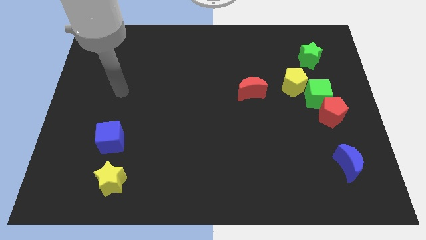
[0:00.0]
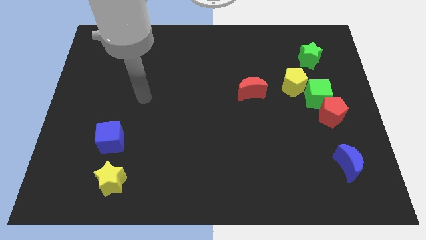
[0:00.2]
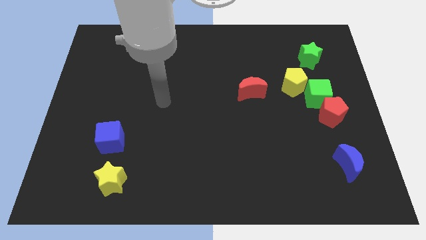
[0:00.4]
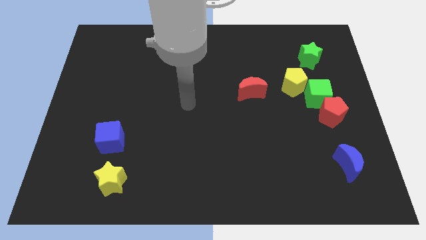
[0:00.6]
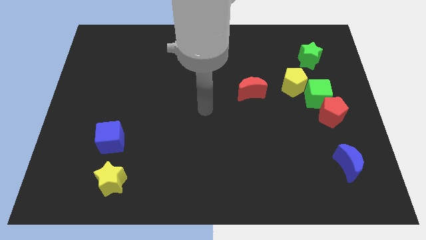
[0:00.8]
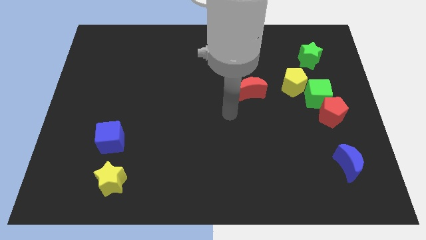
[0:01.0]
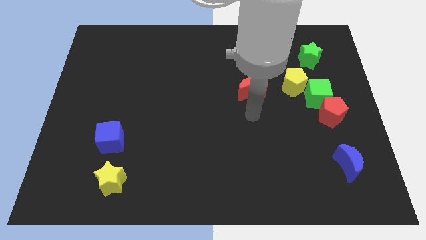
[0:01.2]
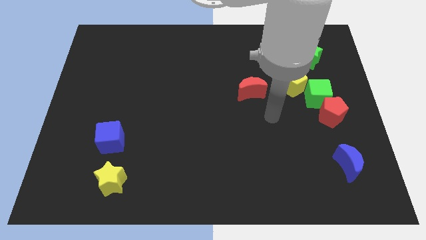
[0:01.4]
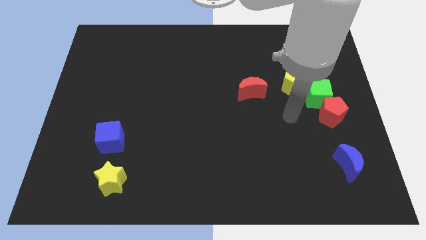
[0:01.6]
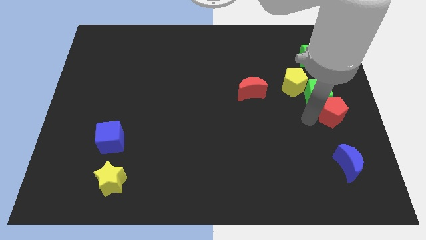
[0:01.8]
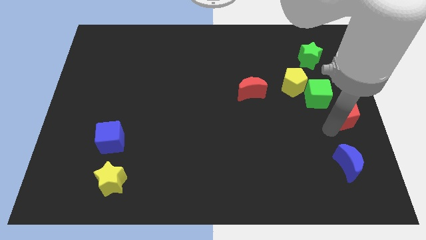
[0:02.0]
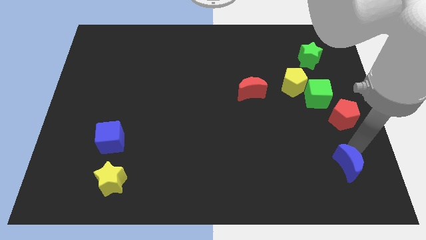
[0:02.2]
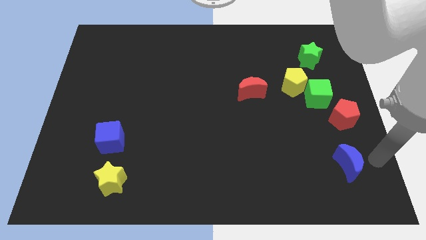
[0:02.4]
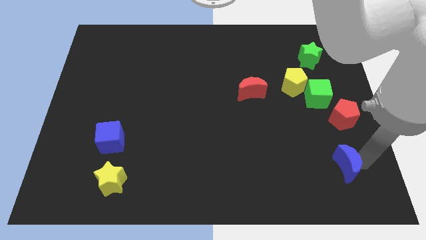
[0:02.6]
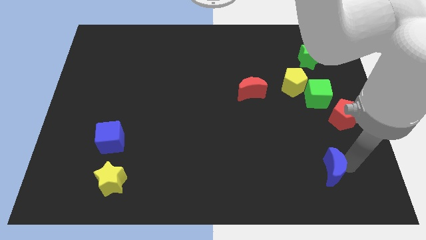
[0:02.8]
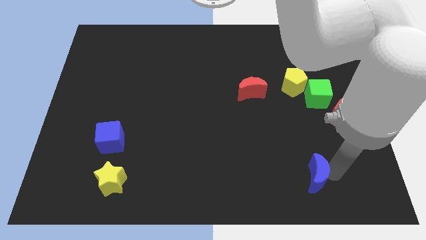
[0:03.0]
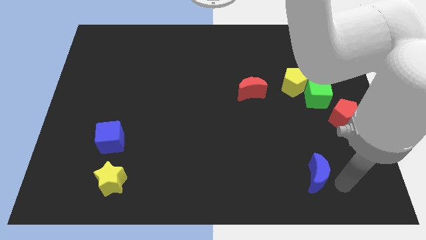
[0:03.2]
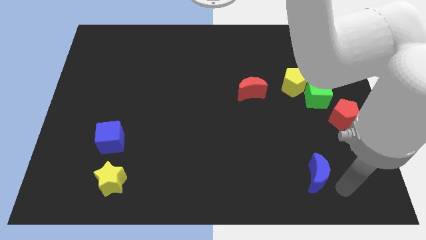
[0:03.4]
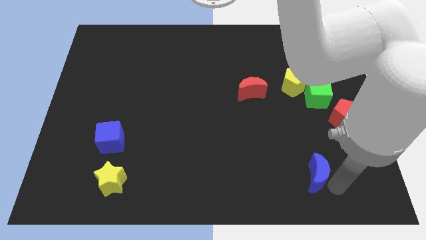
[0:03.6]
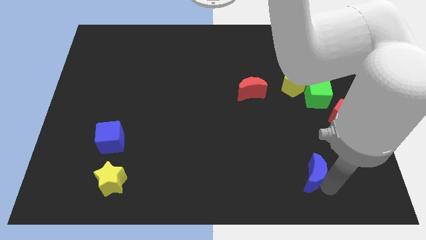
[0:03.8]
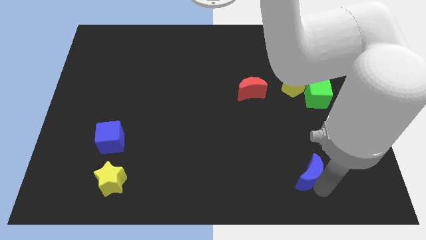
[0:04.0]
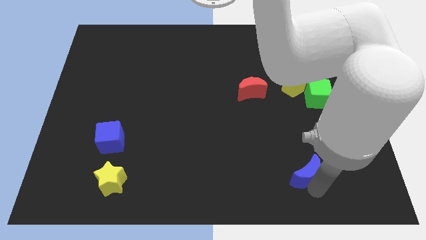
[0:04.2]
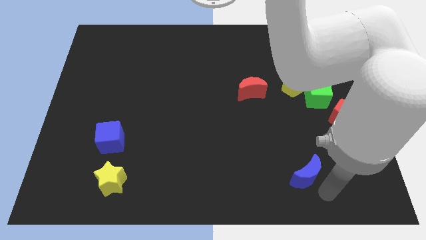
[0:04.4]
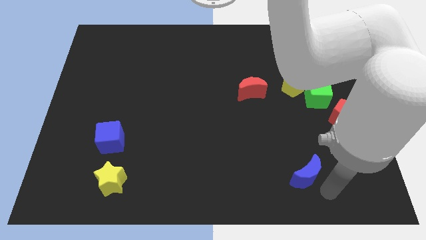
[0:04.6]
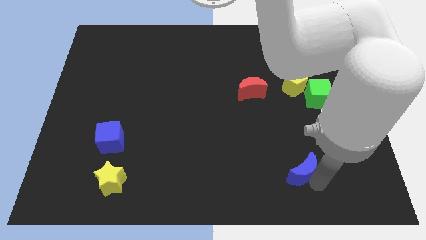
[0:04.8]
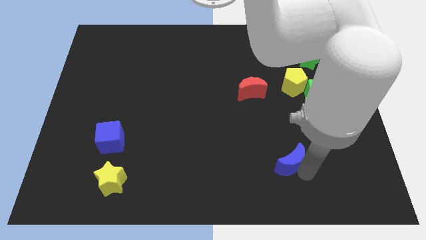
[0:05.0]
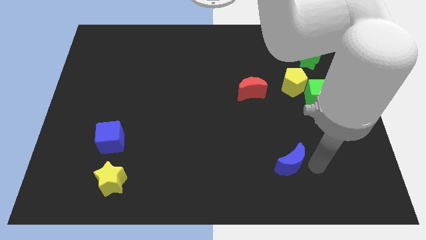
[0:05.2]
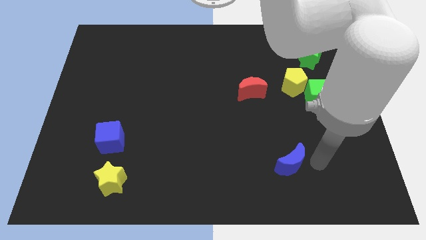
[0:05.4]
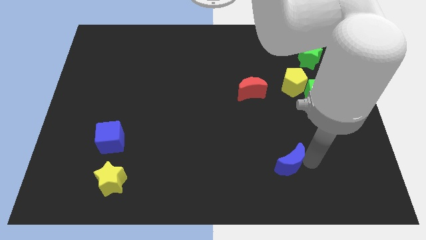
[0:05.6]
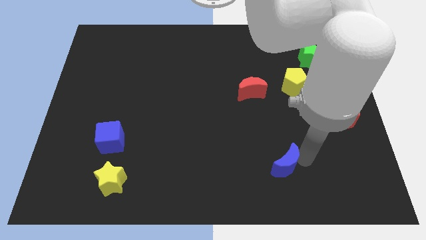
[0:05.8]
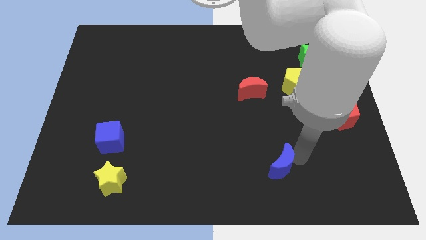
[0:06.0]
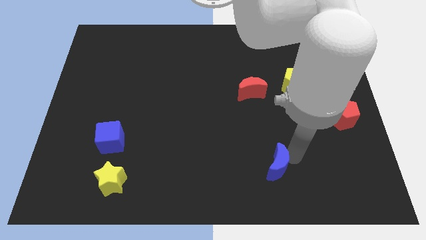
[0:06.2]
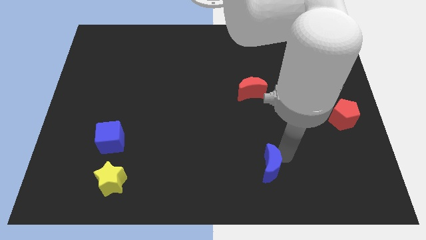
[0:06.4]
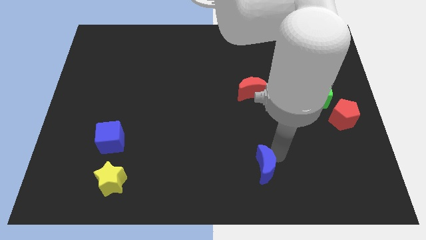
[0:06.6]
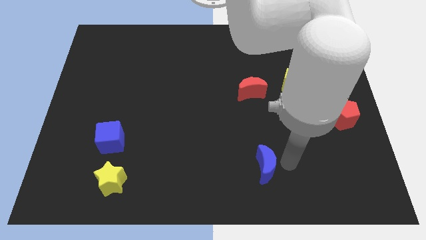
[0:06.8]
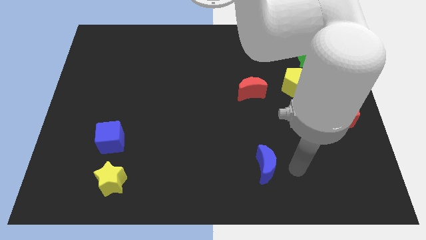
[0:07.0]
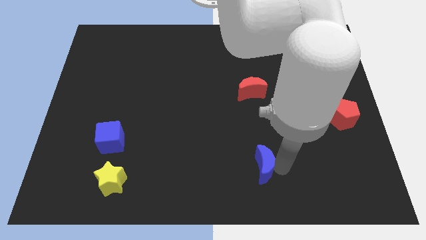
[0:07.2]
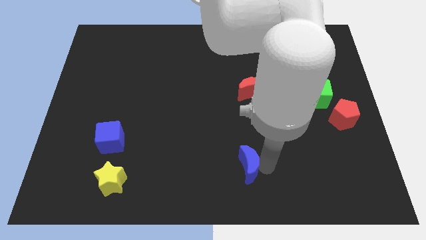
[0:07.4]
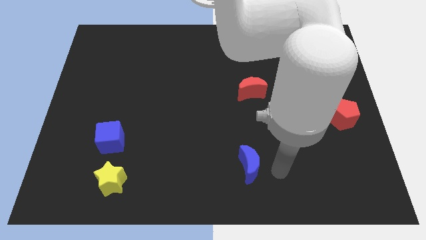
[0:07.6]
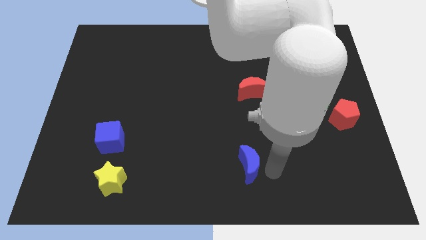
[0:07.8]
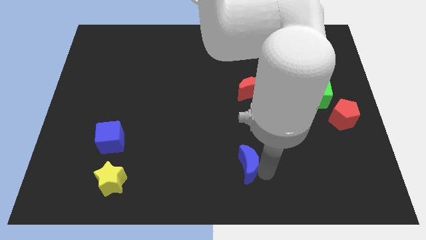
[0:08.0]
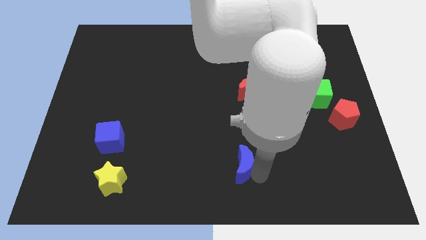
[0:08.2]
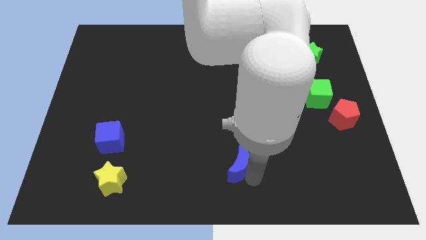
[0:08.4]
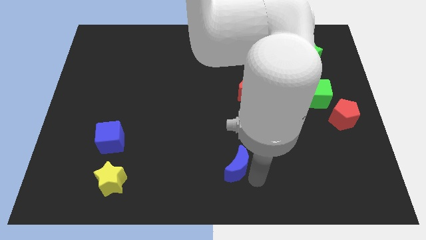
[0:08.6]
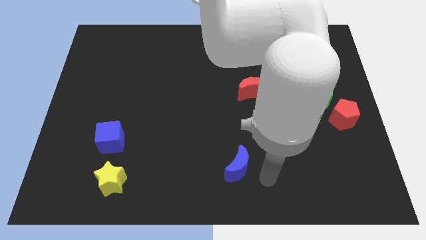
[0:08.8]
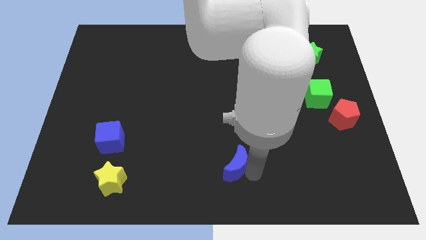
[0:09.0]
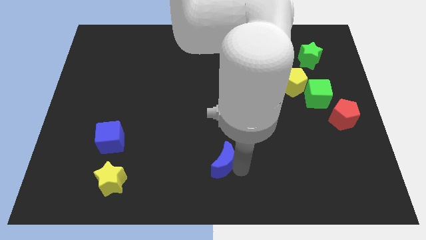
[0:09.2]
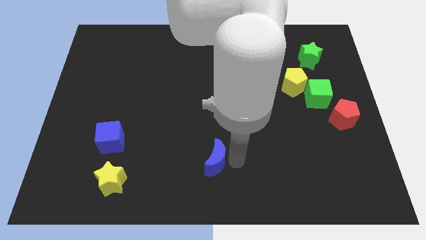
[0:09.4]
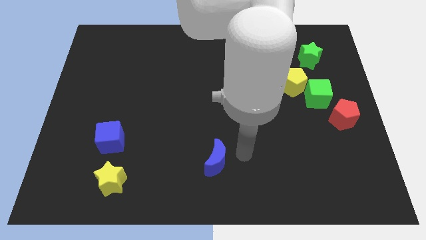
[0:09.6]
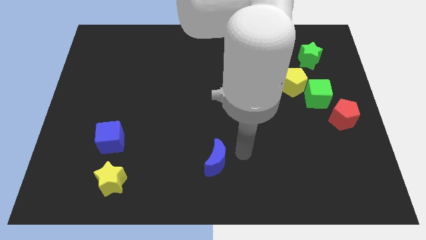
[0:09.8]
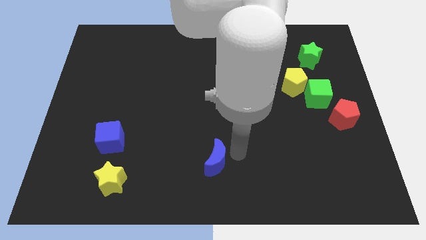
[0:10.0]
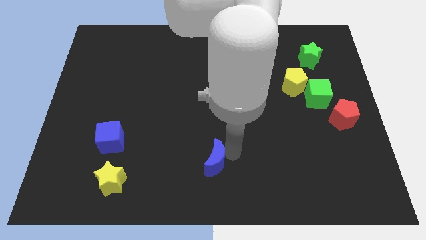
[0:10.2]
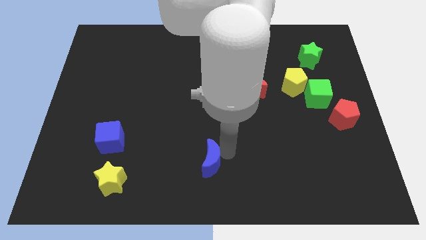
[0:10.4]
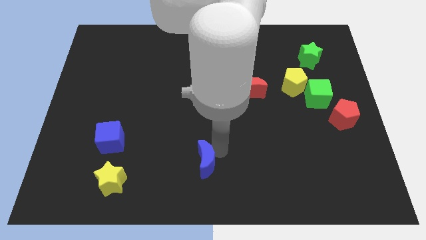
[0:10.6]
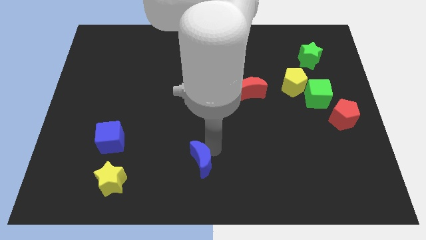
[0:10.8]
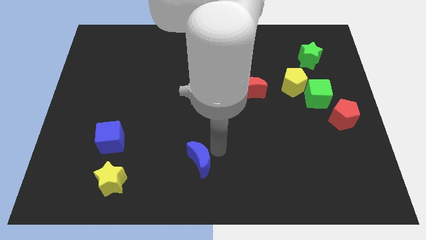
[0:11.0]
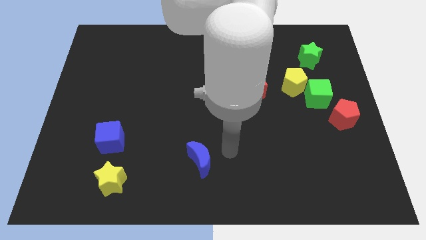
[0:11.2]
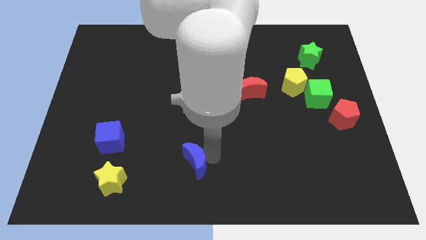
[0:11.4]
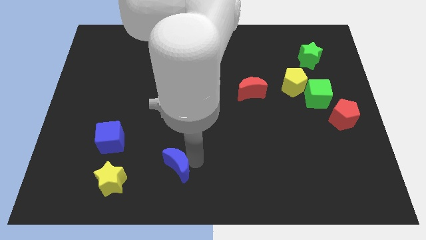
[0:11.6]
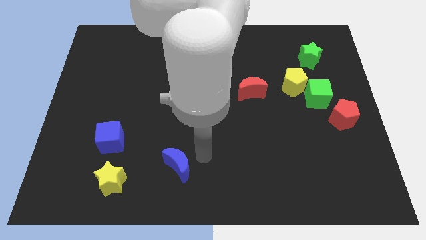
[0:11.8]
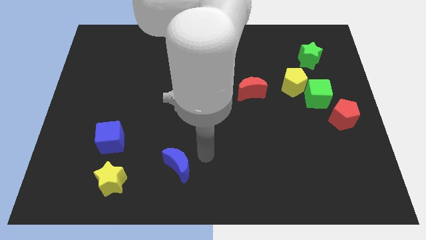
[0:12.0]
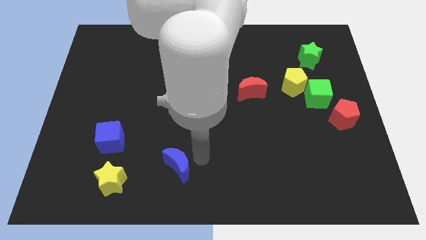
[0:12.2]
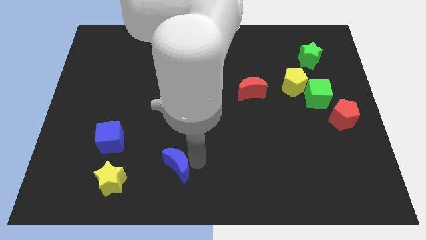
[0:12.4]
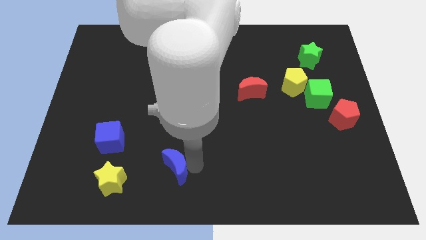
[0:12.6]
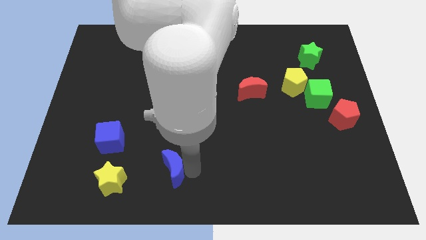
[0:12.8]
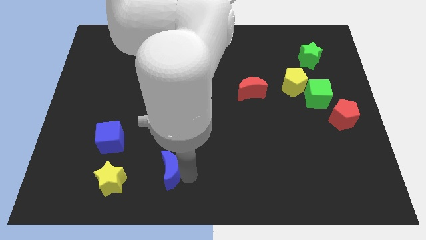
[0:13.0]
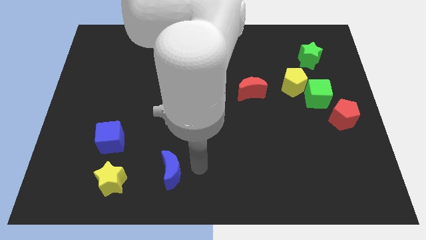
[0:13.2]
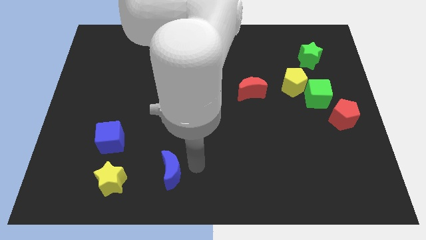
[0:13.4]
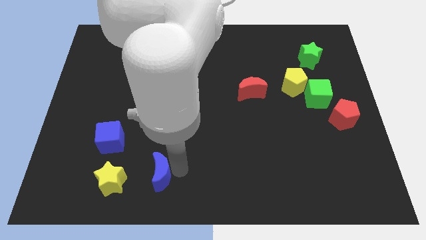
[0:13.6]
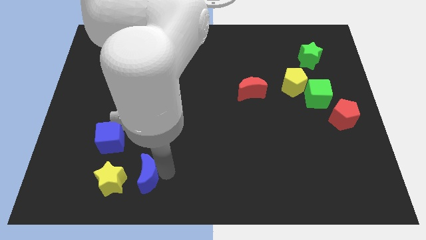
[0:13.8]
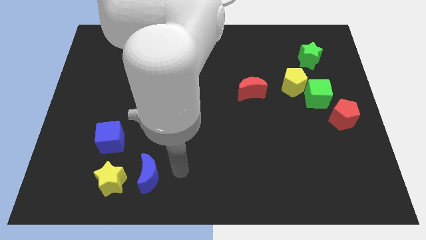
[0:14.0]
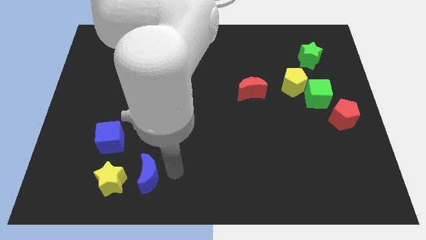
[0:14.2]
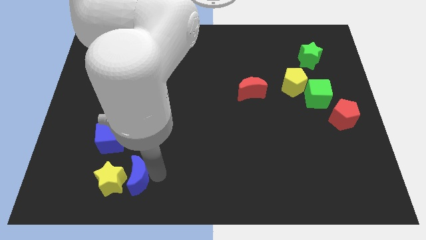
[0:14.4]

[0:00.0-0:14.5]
put the blue moon towards the yellow star
